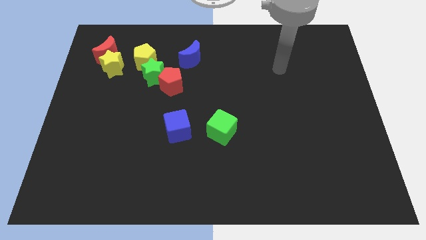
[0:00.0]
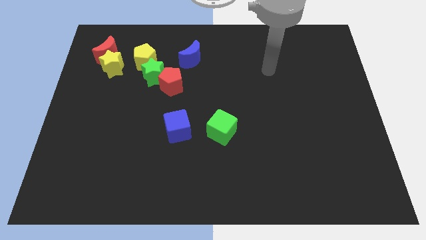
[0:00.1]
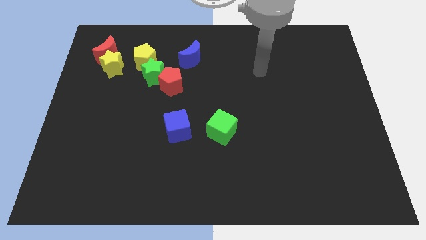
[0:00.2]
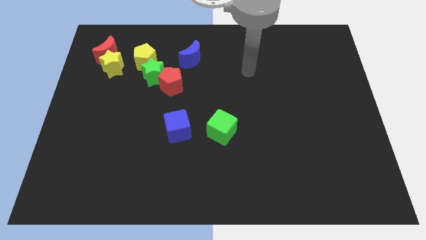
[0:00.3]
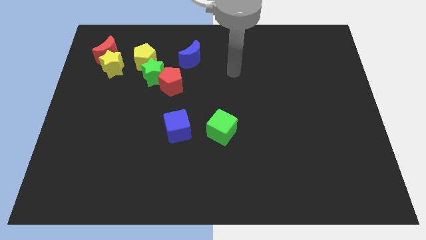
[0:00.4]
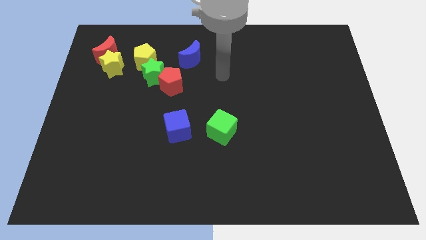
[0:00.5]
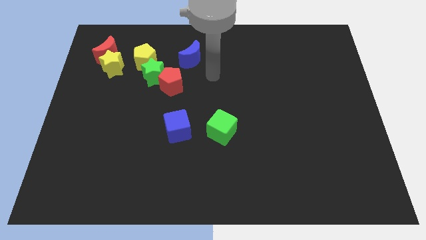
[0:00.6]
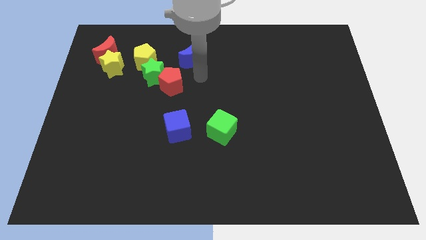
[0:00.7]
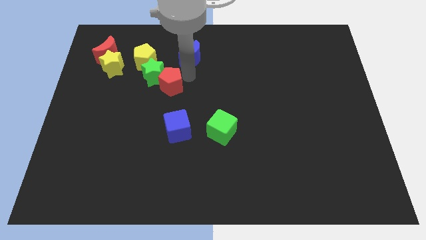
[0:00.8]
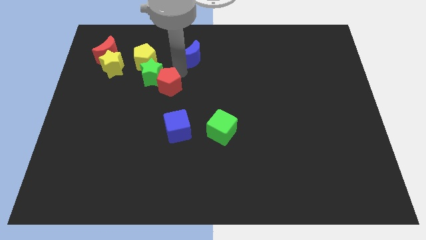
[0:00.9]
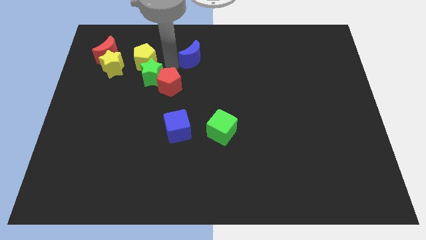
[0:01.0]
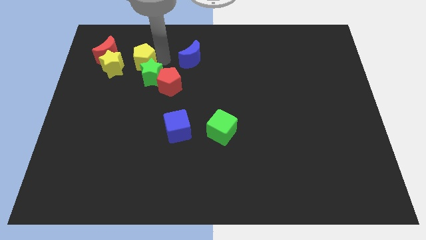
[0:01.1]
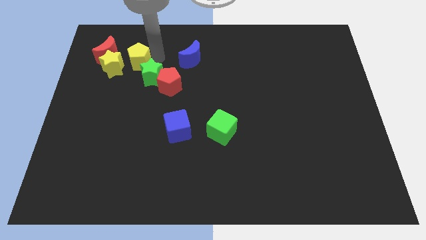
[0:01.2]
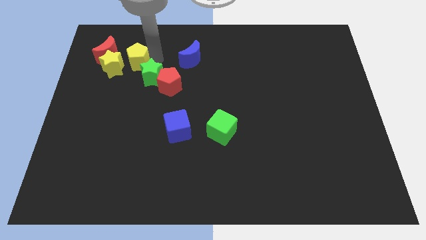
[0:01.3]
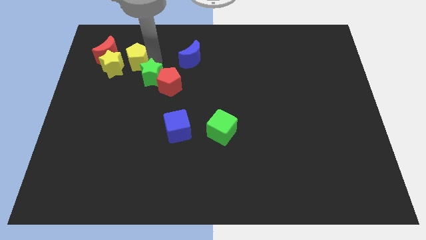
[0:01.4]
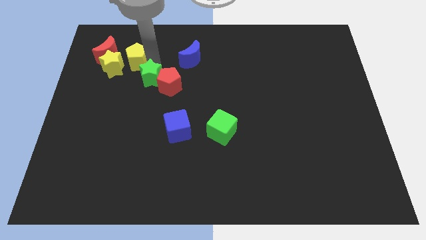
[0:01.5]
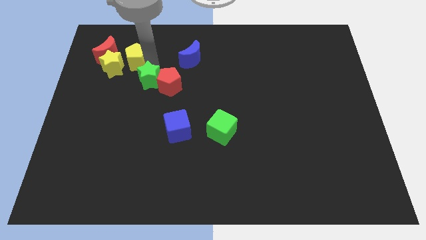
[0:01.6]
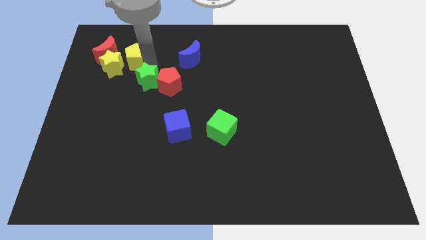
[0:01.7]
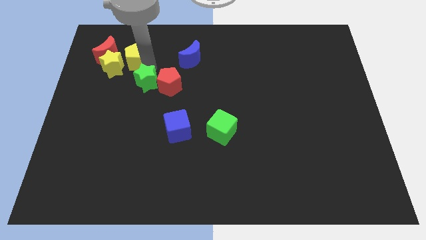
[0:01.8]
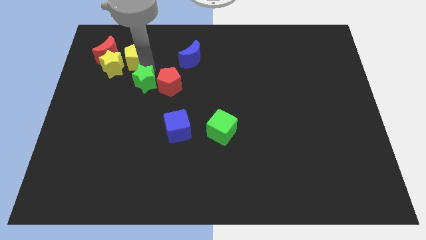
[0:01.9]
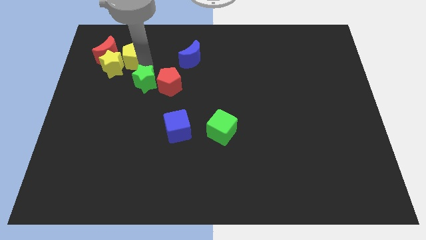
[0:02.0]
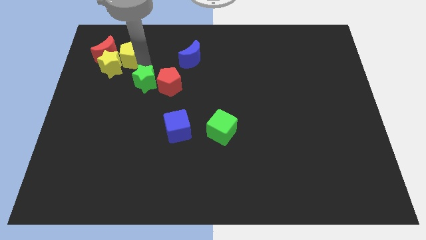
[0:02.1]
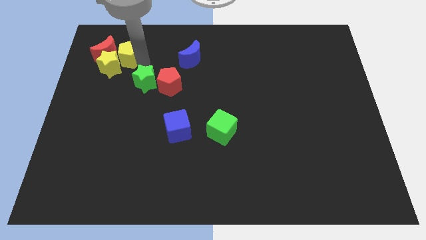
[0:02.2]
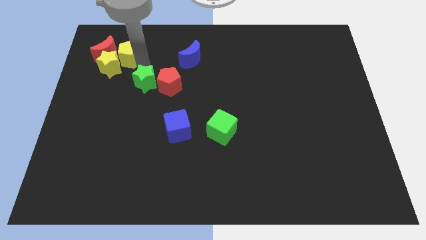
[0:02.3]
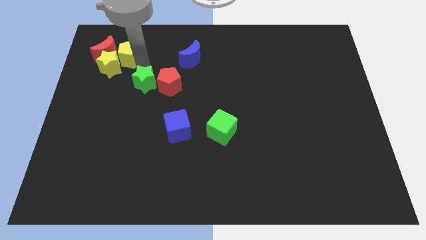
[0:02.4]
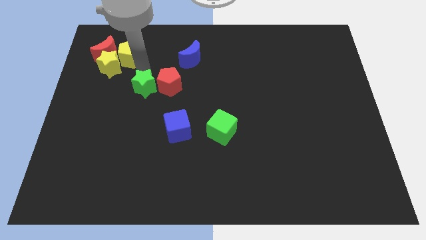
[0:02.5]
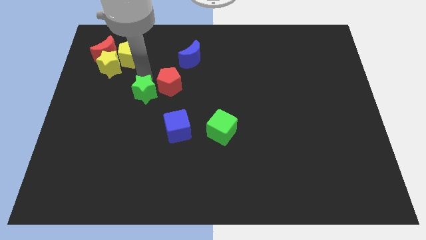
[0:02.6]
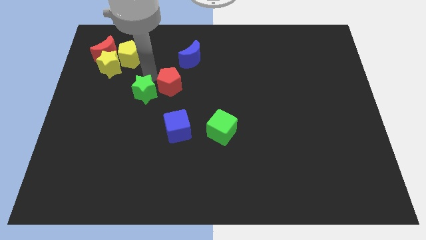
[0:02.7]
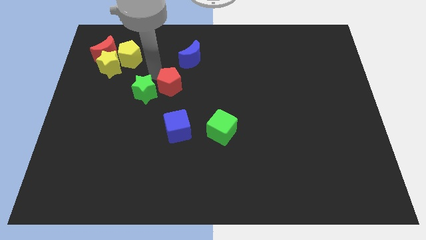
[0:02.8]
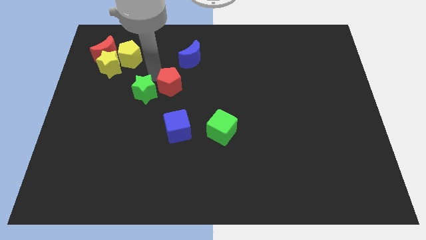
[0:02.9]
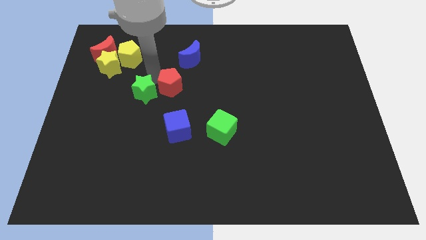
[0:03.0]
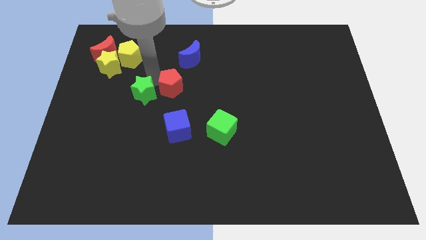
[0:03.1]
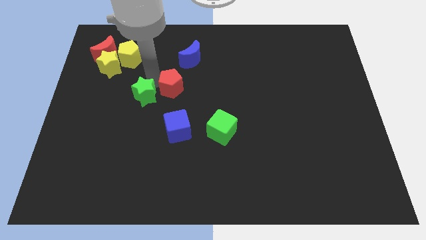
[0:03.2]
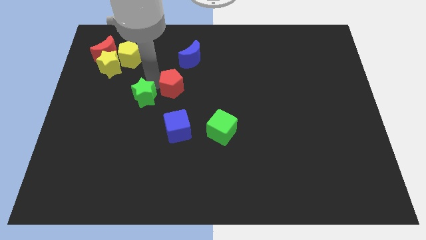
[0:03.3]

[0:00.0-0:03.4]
slightly push the green star downwards

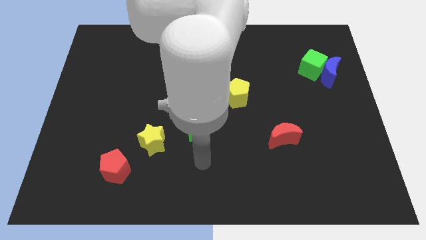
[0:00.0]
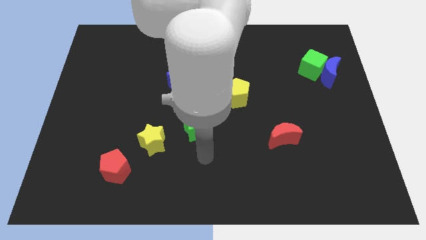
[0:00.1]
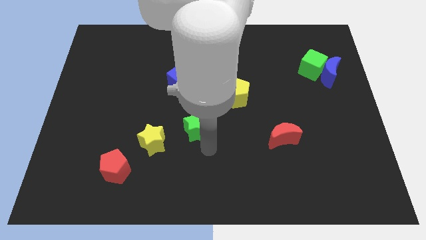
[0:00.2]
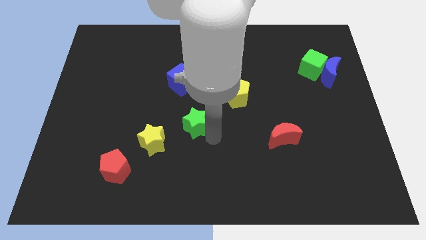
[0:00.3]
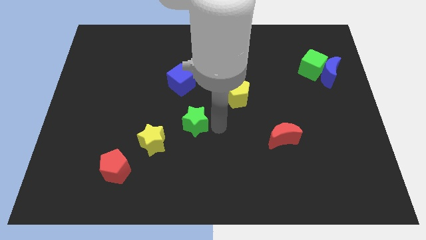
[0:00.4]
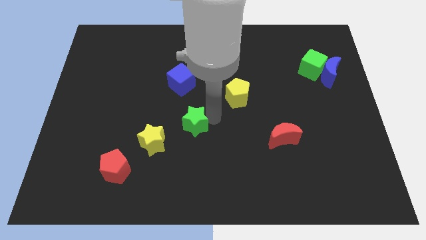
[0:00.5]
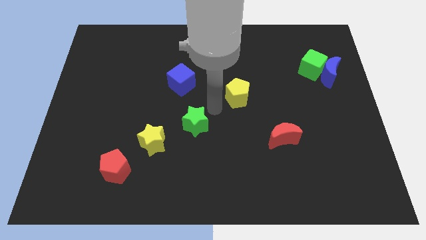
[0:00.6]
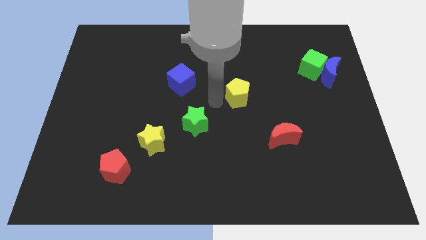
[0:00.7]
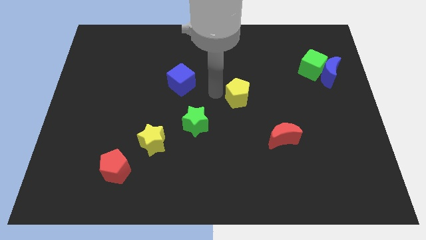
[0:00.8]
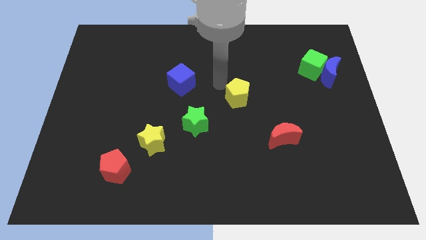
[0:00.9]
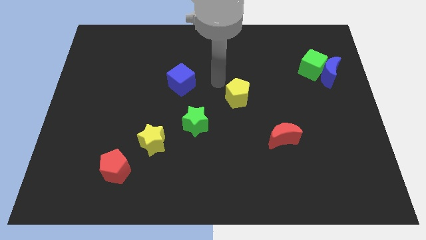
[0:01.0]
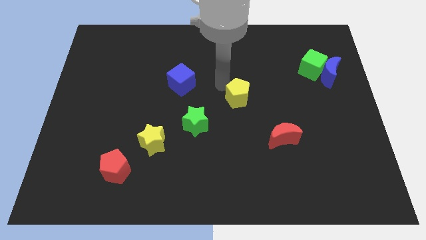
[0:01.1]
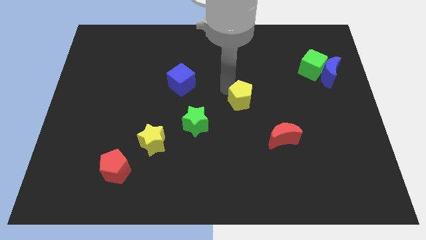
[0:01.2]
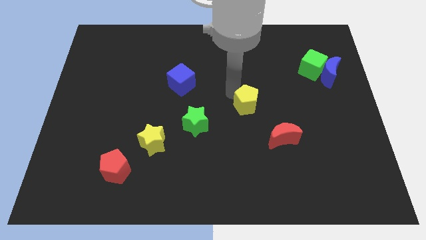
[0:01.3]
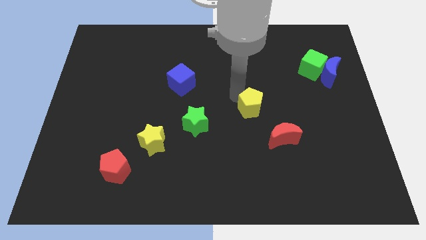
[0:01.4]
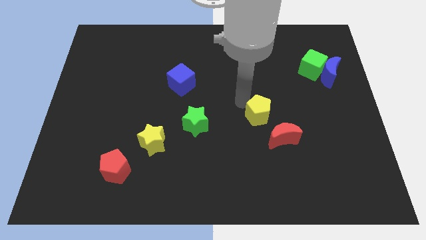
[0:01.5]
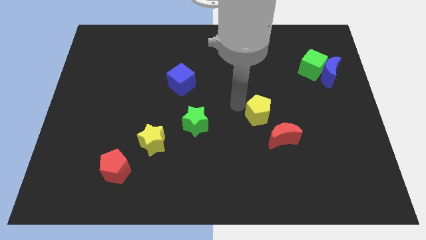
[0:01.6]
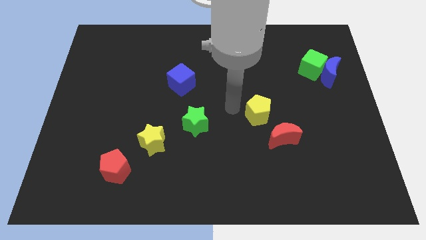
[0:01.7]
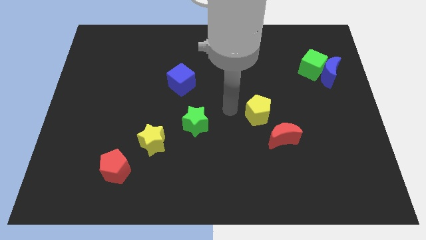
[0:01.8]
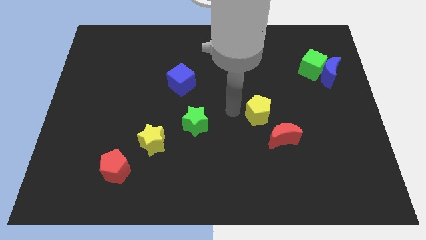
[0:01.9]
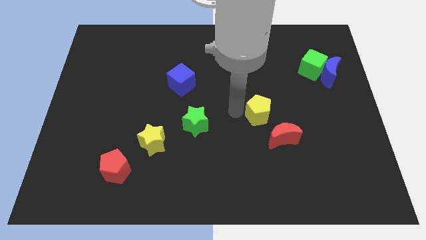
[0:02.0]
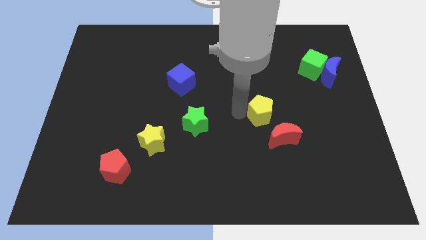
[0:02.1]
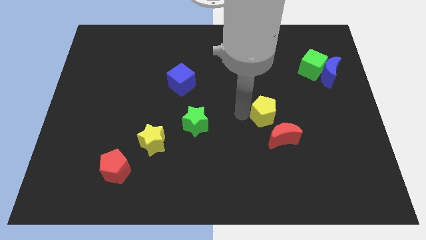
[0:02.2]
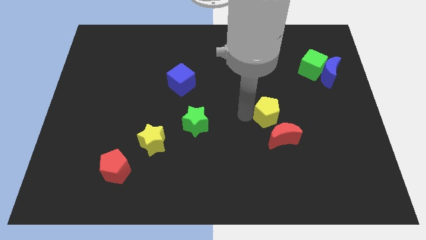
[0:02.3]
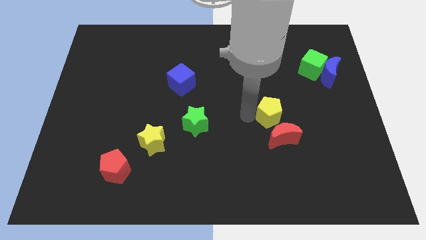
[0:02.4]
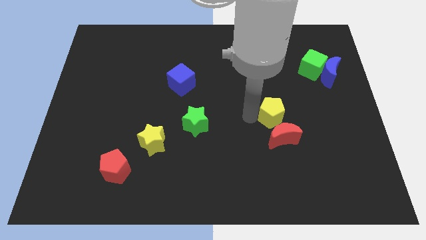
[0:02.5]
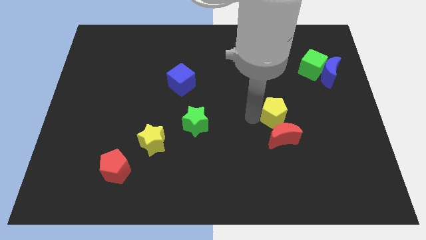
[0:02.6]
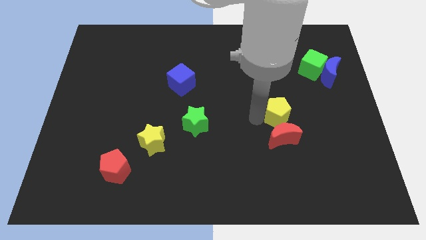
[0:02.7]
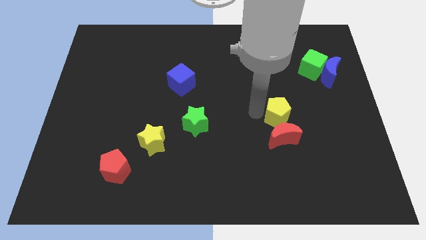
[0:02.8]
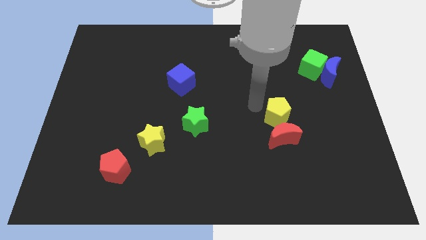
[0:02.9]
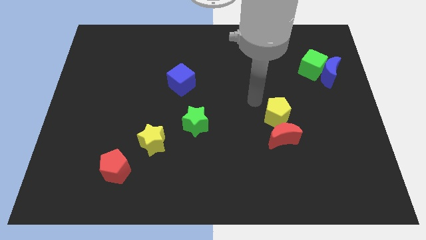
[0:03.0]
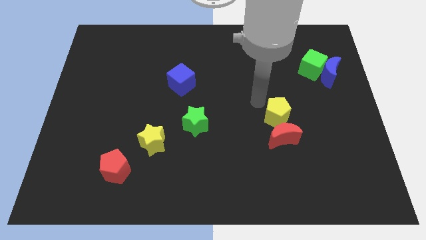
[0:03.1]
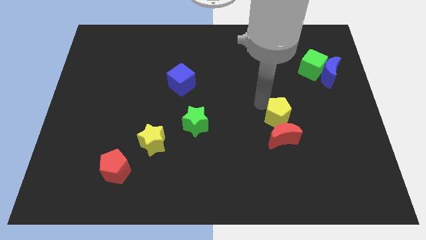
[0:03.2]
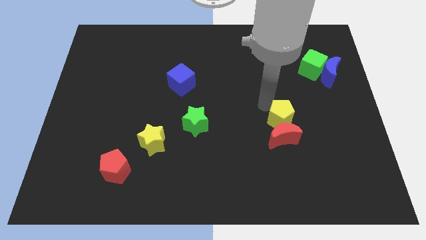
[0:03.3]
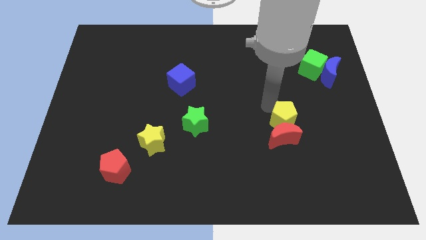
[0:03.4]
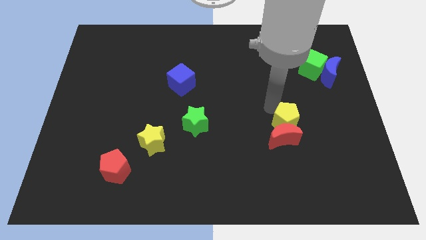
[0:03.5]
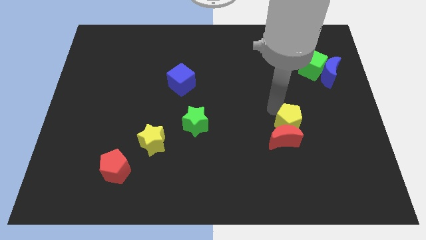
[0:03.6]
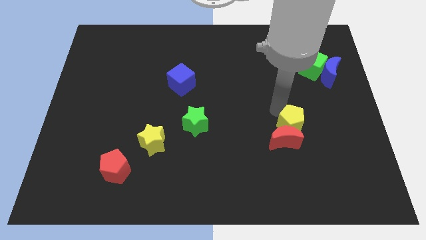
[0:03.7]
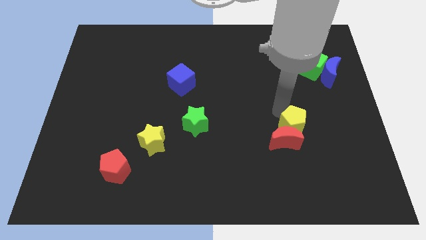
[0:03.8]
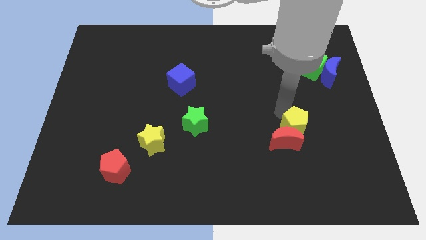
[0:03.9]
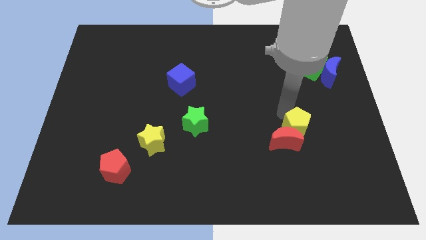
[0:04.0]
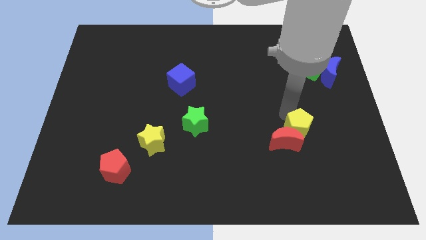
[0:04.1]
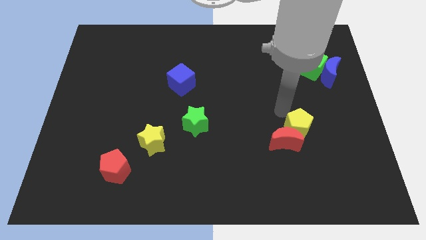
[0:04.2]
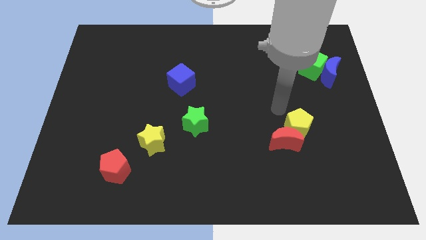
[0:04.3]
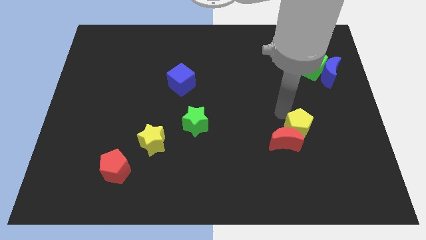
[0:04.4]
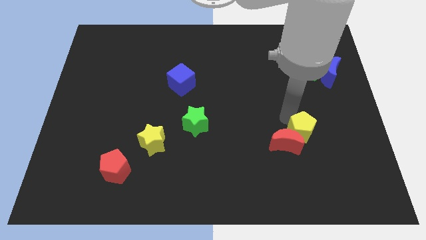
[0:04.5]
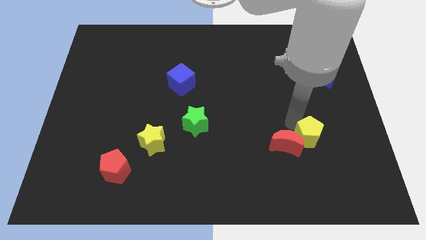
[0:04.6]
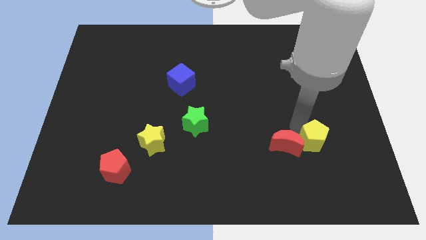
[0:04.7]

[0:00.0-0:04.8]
slide the yellow pentagon down and right diagonally
